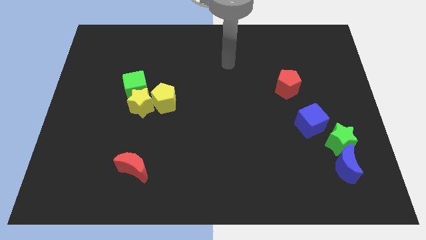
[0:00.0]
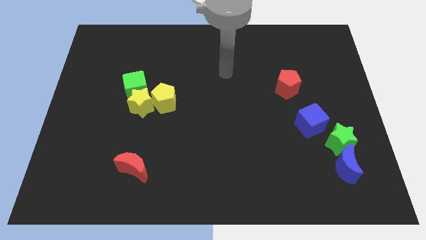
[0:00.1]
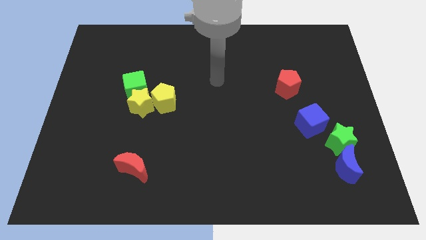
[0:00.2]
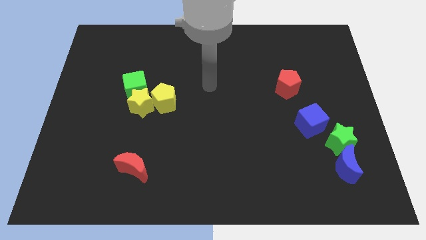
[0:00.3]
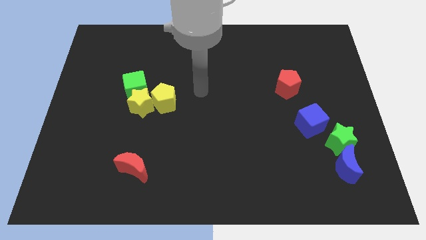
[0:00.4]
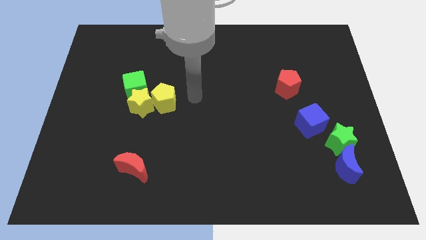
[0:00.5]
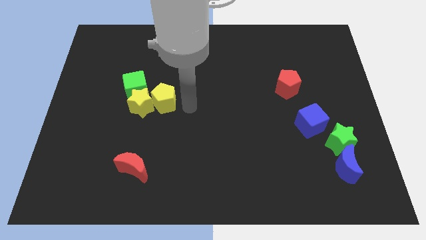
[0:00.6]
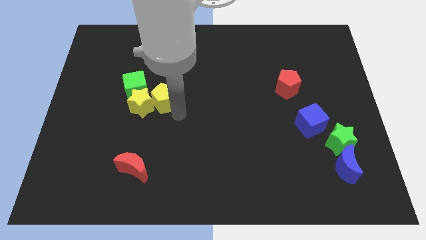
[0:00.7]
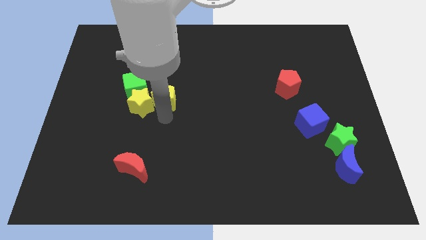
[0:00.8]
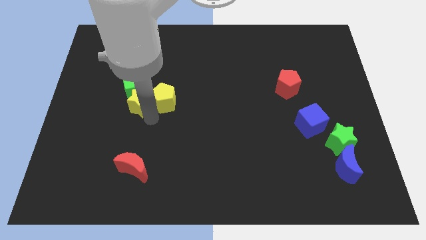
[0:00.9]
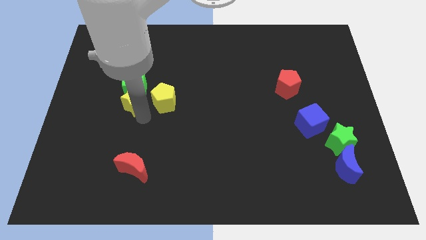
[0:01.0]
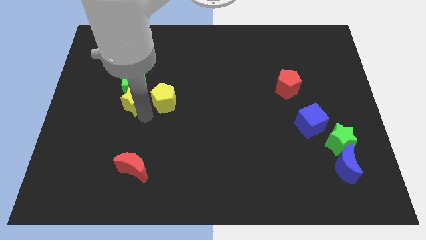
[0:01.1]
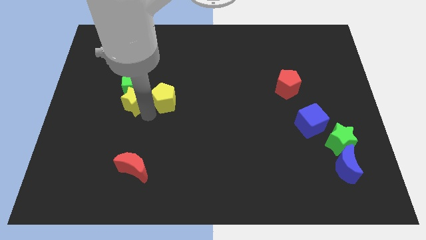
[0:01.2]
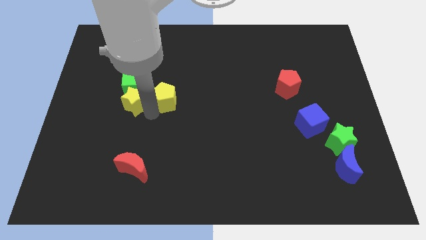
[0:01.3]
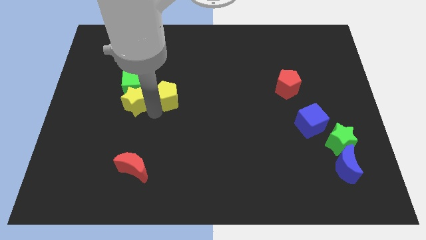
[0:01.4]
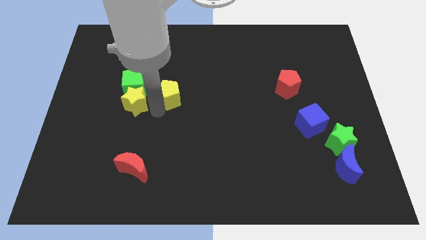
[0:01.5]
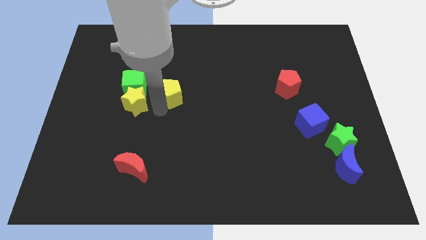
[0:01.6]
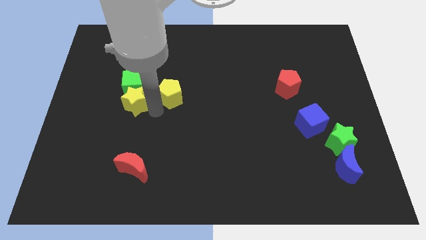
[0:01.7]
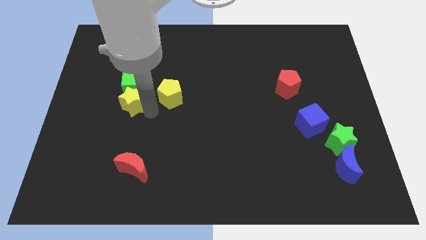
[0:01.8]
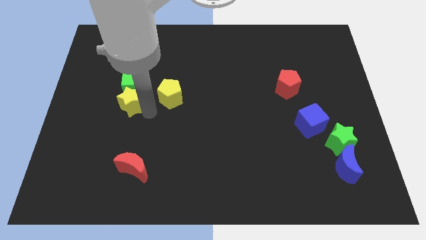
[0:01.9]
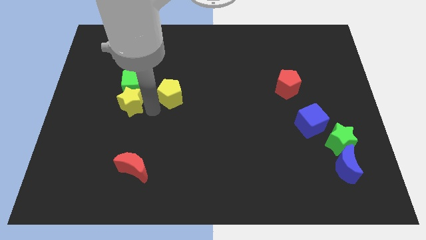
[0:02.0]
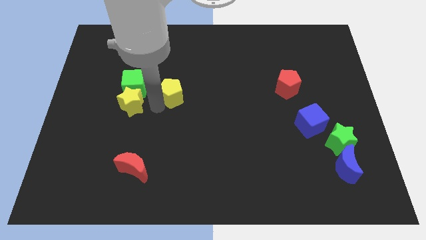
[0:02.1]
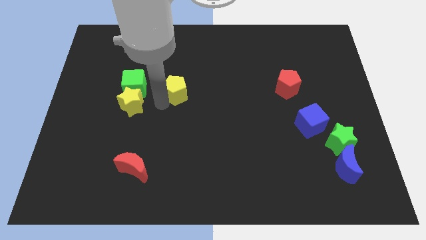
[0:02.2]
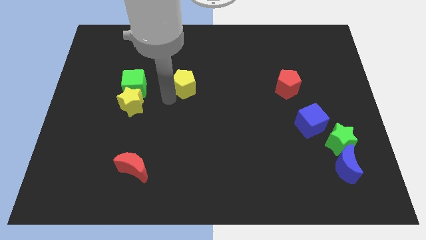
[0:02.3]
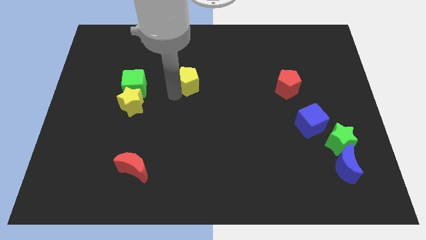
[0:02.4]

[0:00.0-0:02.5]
slide the yellow pentagon a little up and to the right

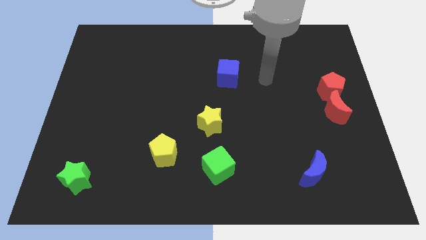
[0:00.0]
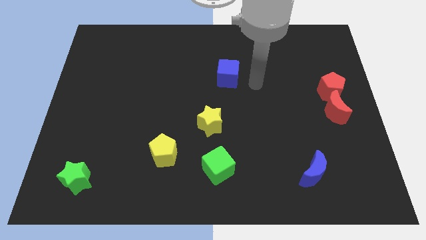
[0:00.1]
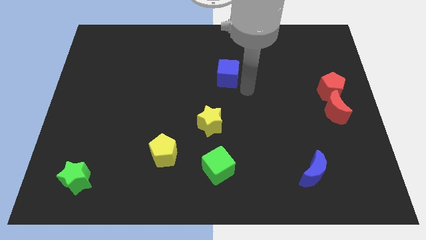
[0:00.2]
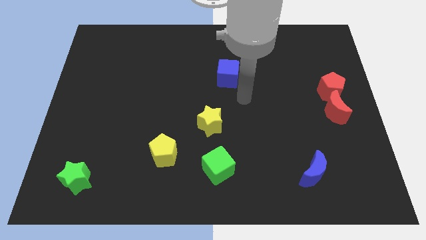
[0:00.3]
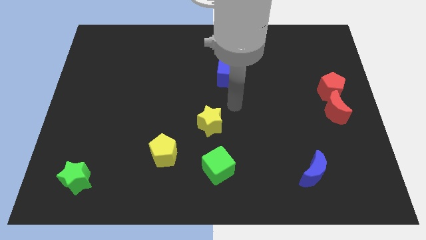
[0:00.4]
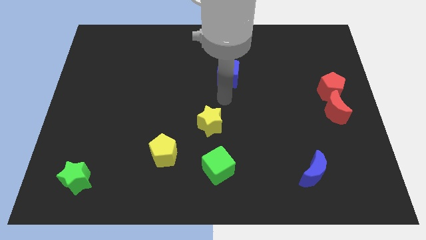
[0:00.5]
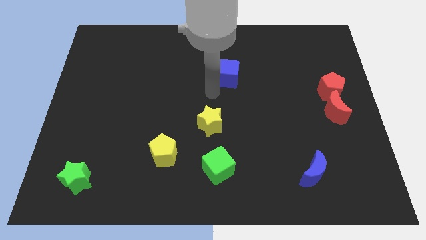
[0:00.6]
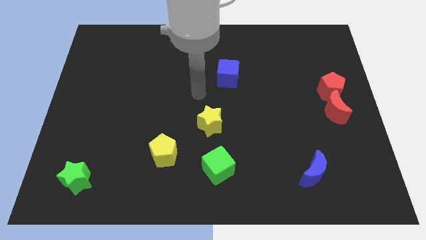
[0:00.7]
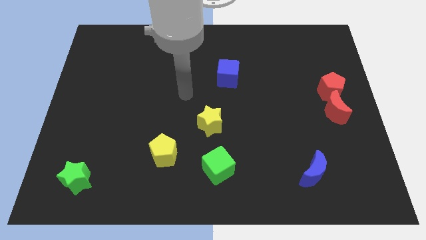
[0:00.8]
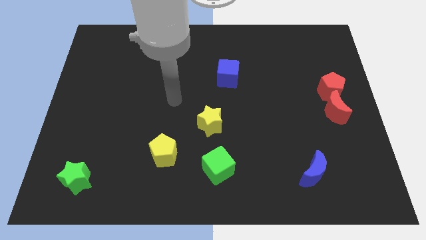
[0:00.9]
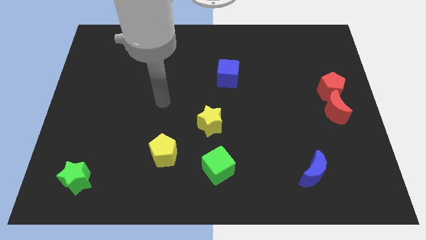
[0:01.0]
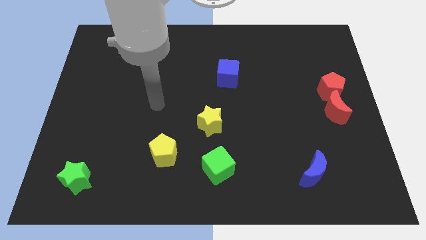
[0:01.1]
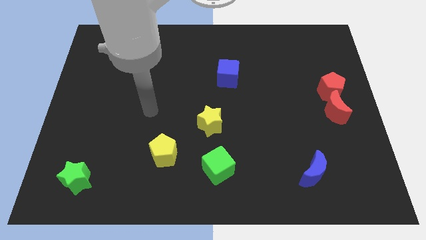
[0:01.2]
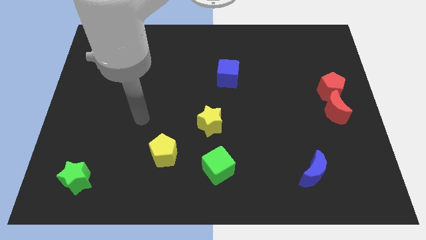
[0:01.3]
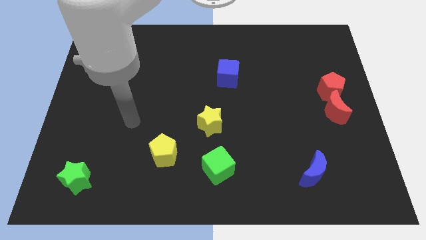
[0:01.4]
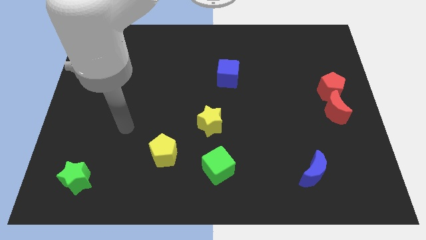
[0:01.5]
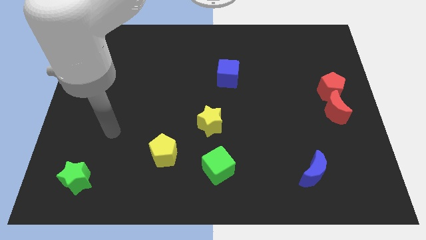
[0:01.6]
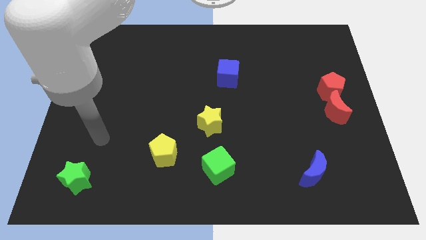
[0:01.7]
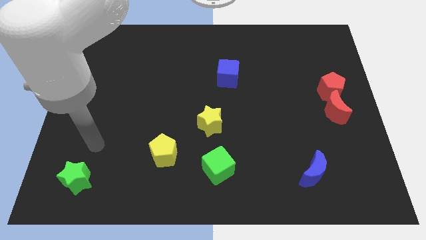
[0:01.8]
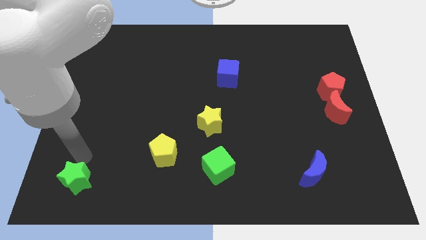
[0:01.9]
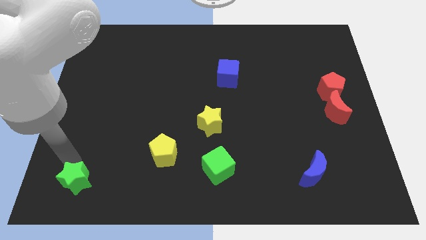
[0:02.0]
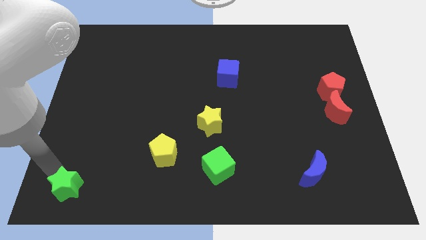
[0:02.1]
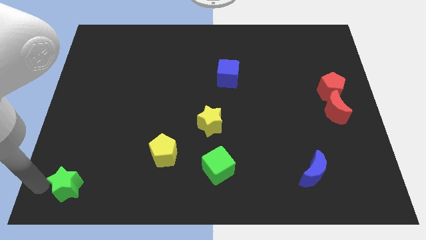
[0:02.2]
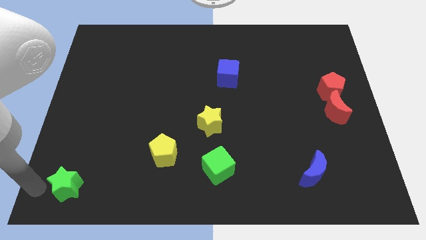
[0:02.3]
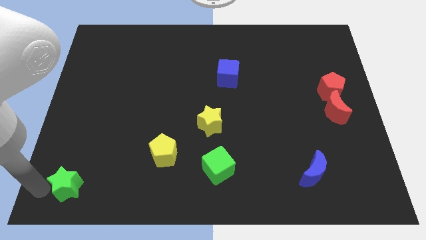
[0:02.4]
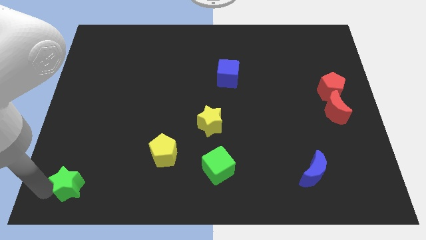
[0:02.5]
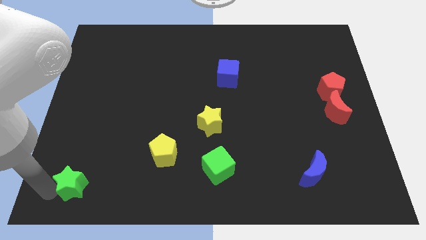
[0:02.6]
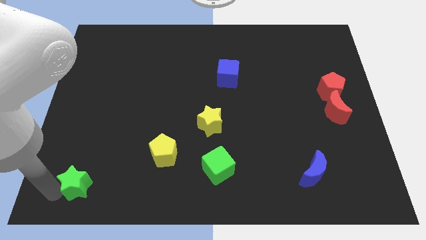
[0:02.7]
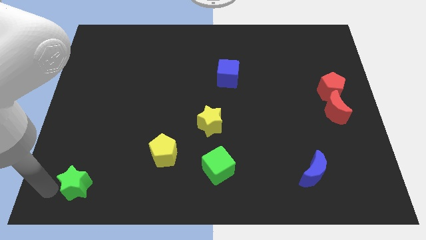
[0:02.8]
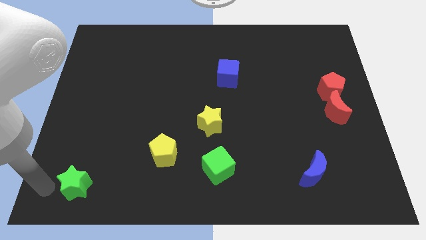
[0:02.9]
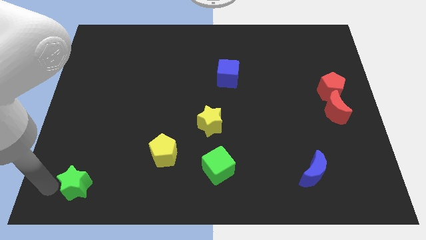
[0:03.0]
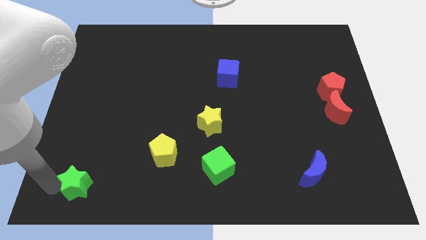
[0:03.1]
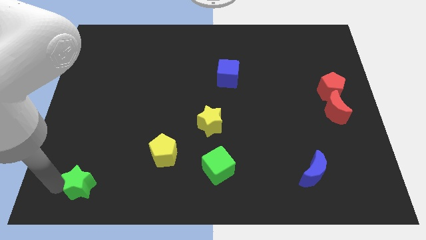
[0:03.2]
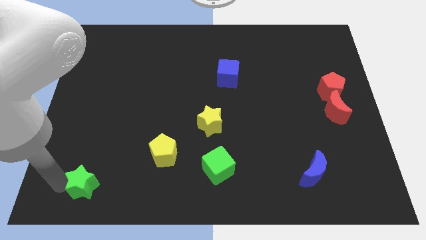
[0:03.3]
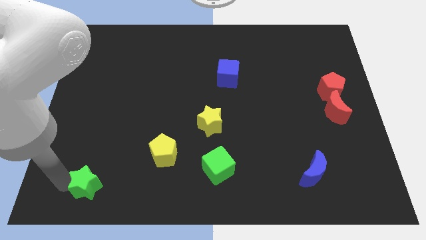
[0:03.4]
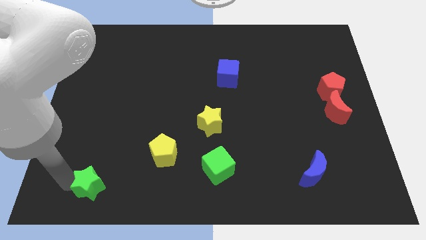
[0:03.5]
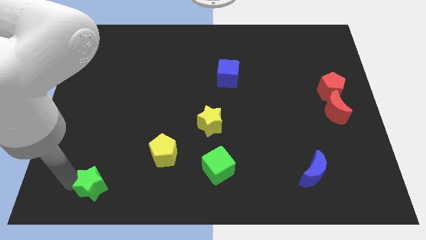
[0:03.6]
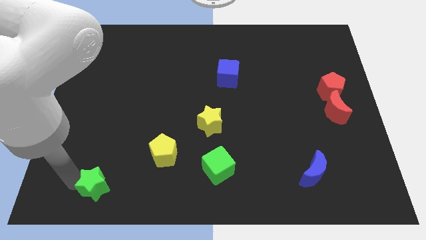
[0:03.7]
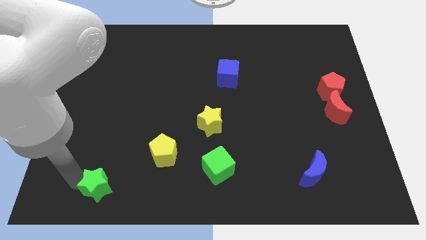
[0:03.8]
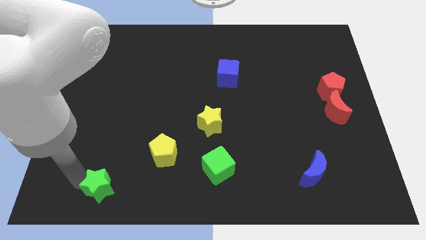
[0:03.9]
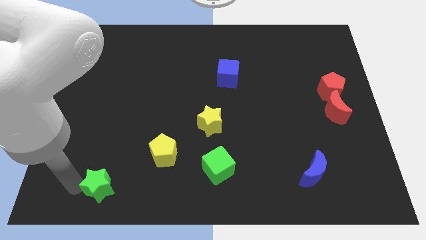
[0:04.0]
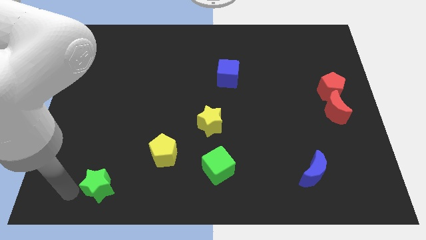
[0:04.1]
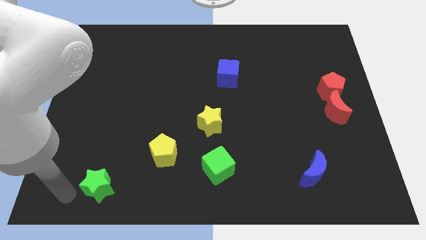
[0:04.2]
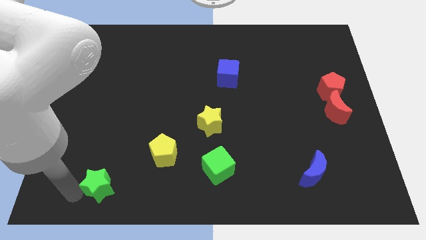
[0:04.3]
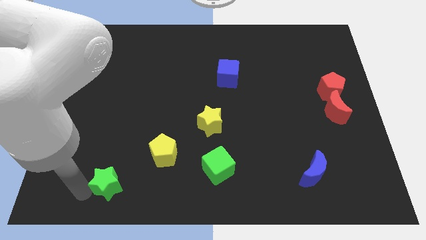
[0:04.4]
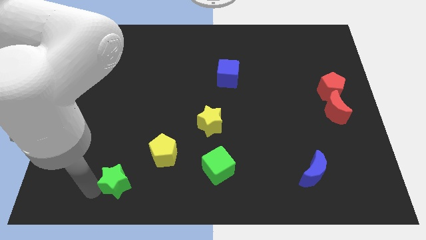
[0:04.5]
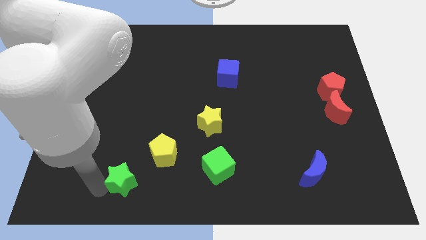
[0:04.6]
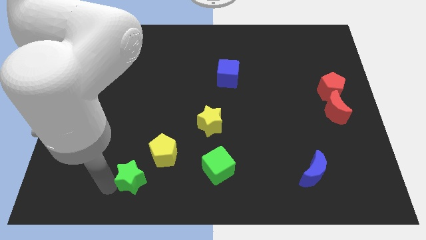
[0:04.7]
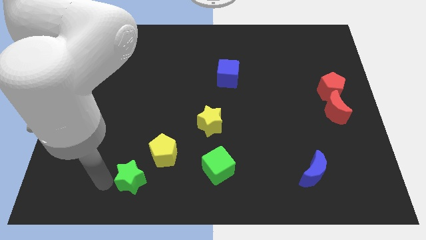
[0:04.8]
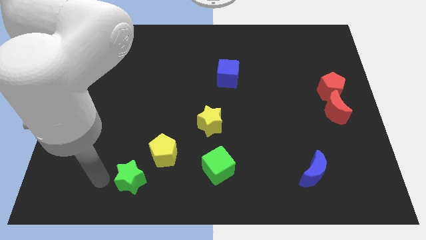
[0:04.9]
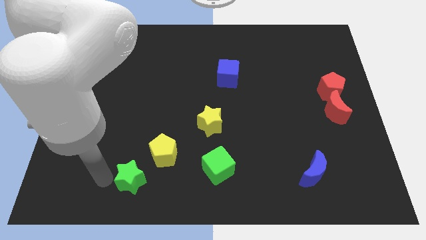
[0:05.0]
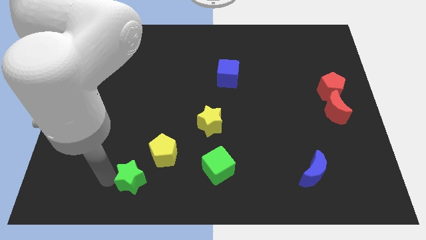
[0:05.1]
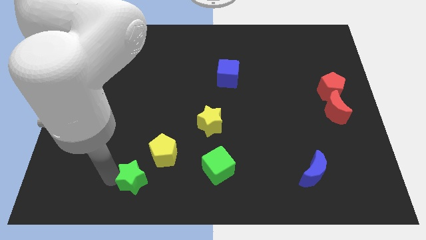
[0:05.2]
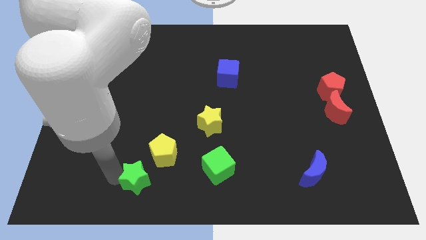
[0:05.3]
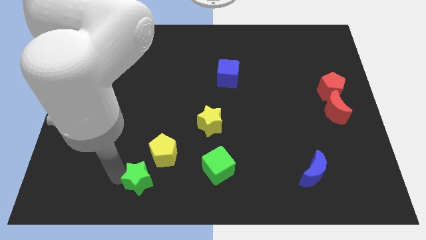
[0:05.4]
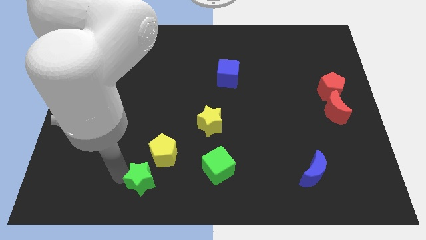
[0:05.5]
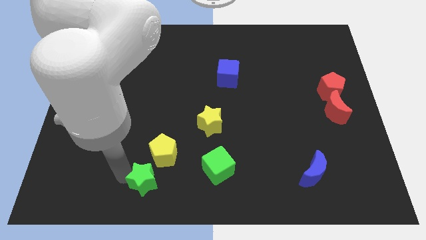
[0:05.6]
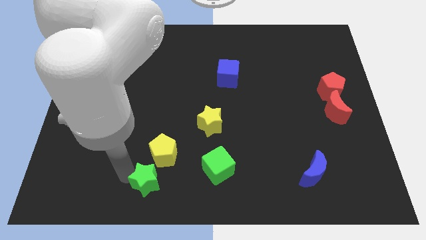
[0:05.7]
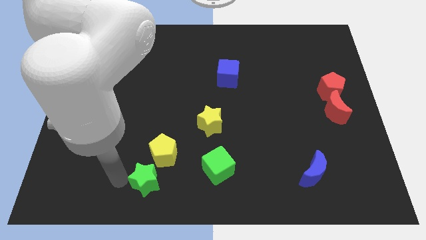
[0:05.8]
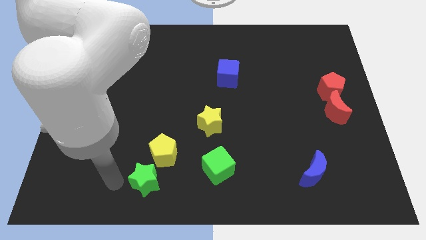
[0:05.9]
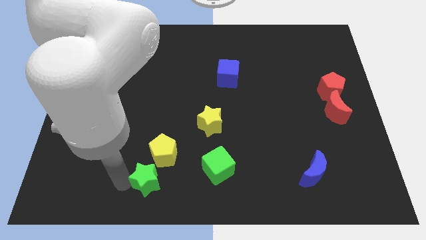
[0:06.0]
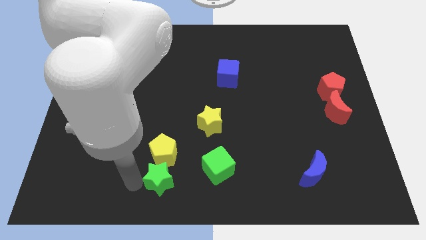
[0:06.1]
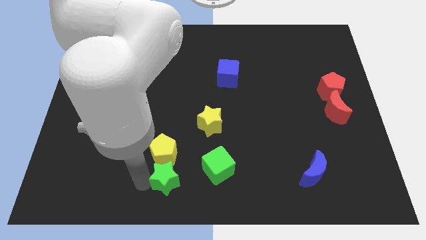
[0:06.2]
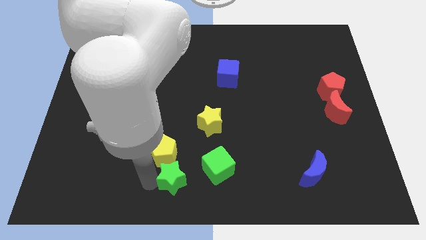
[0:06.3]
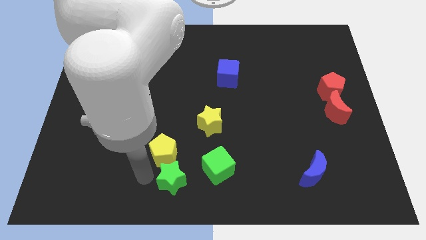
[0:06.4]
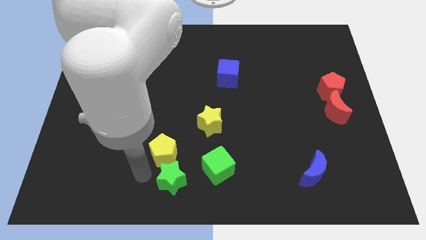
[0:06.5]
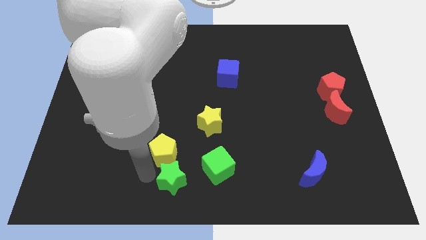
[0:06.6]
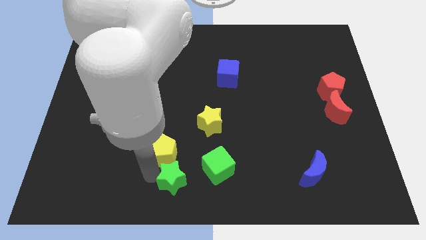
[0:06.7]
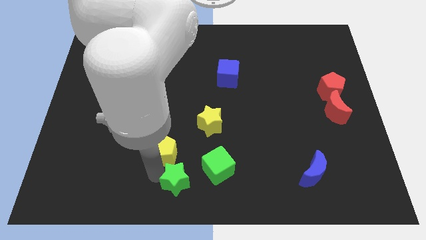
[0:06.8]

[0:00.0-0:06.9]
slide the green star to the right
